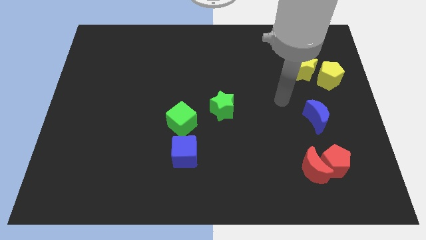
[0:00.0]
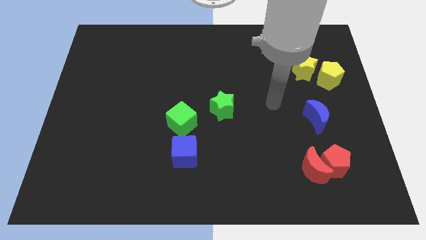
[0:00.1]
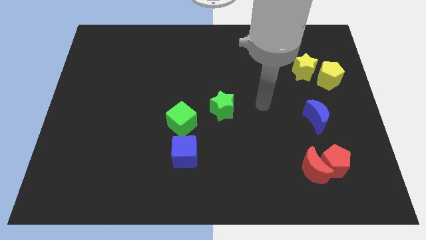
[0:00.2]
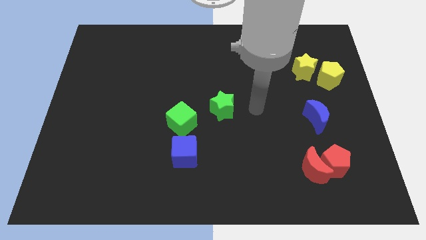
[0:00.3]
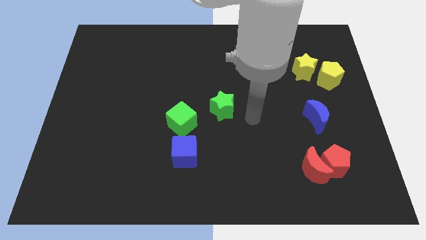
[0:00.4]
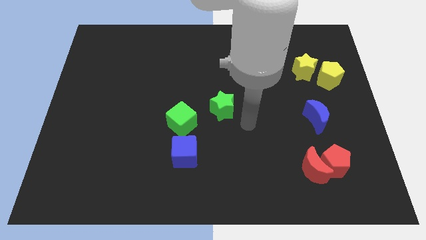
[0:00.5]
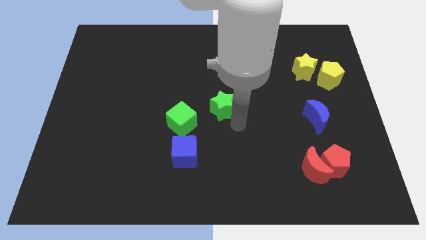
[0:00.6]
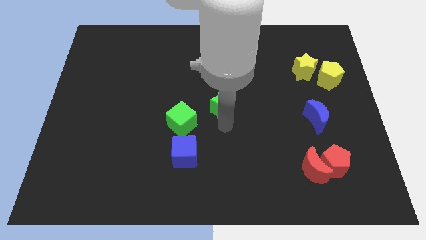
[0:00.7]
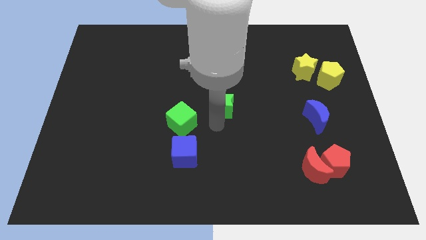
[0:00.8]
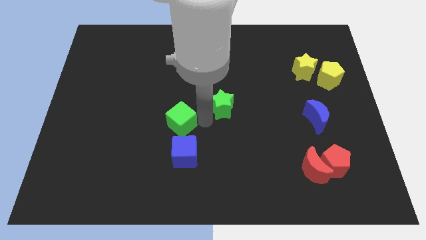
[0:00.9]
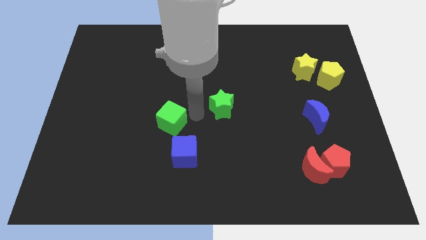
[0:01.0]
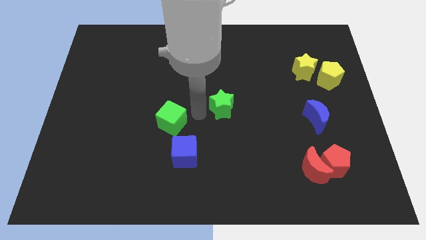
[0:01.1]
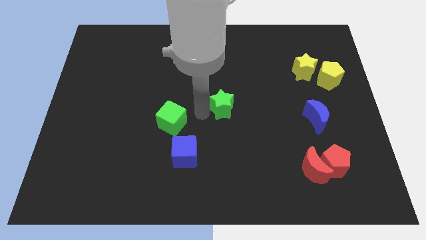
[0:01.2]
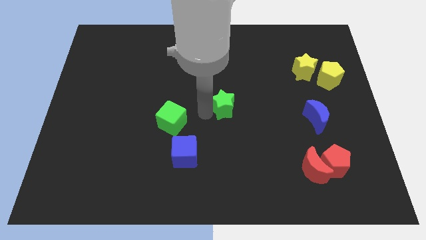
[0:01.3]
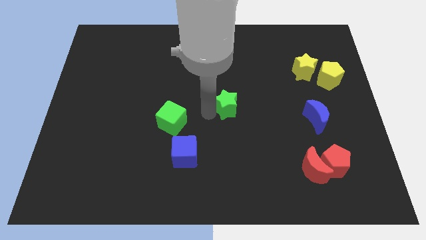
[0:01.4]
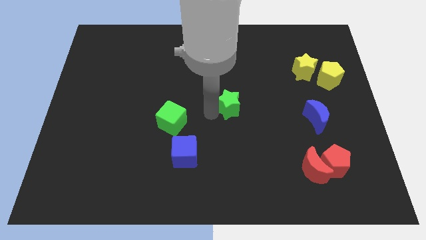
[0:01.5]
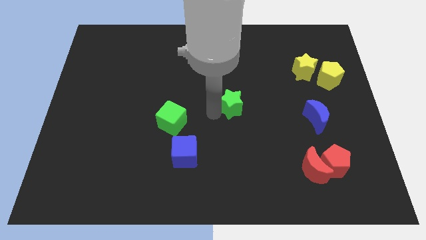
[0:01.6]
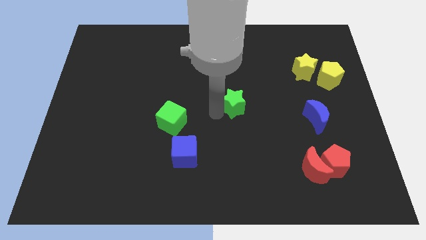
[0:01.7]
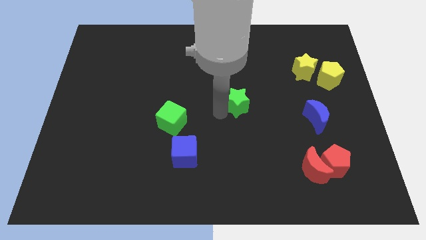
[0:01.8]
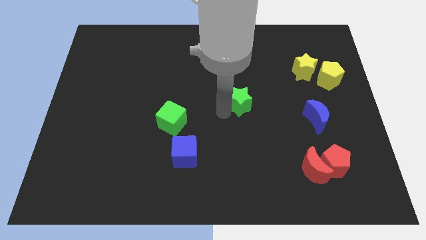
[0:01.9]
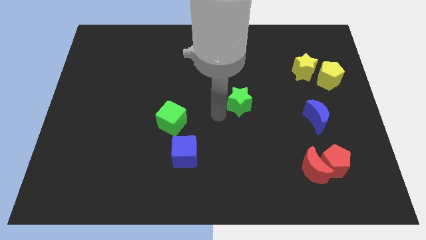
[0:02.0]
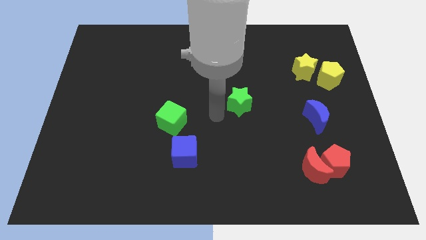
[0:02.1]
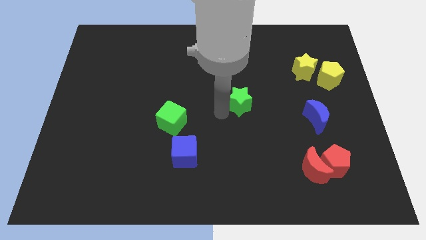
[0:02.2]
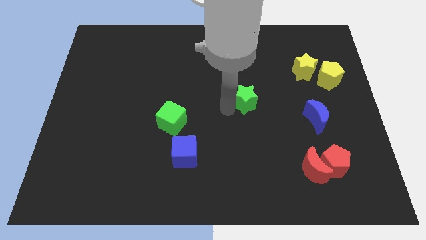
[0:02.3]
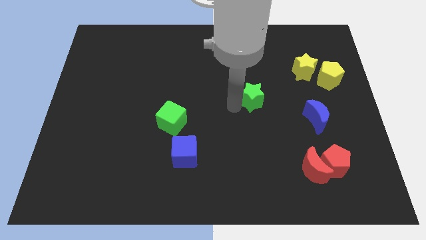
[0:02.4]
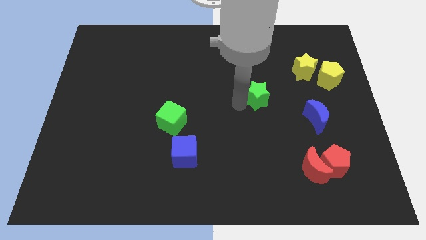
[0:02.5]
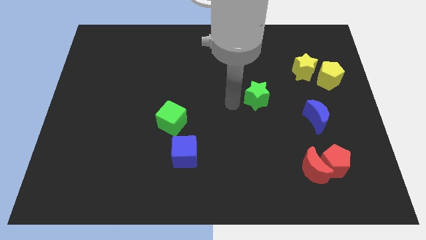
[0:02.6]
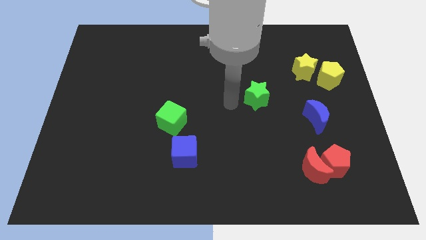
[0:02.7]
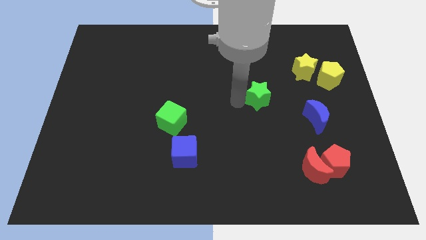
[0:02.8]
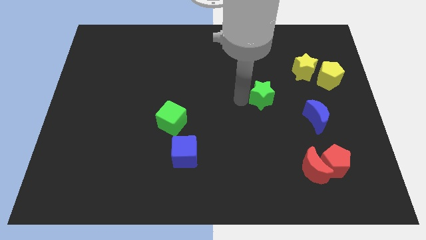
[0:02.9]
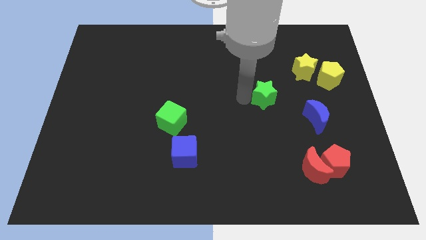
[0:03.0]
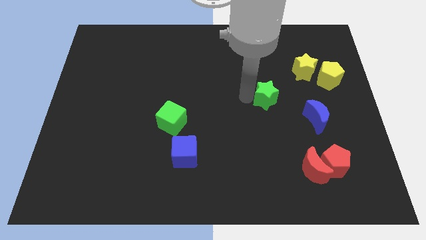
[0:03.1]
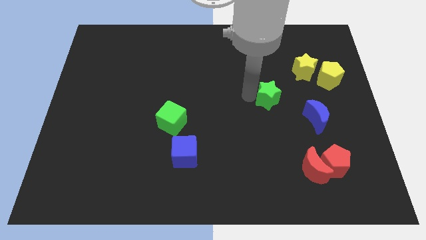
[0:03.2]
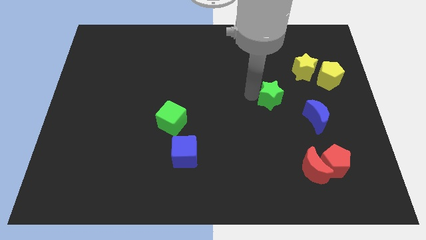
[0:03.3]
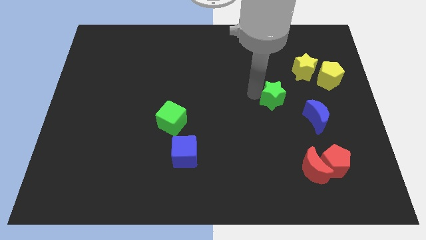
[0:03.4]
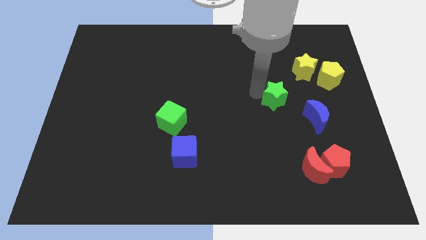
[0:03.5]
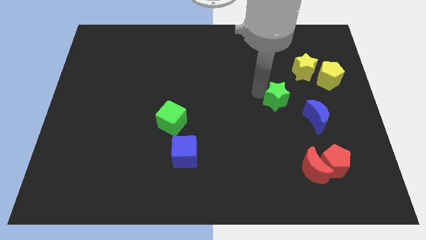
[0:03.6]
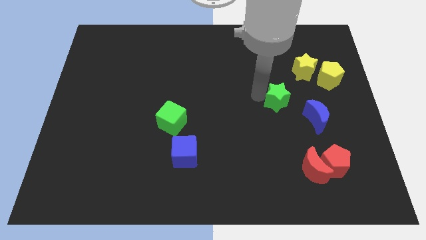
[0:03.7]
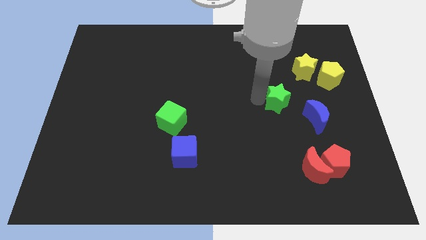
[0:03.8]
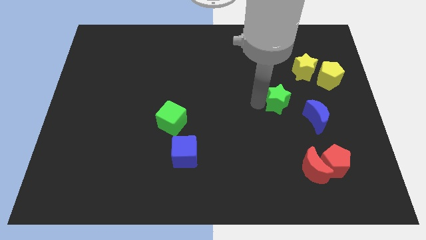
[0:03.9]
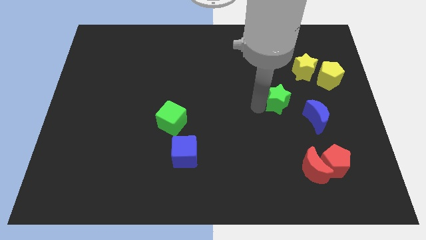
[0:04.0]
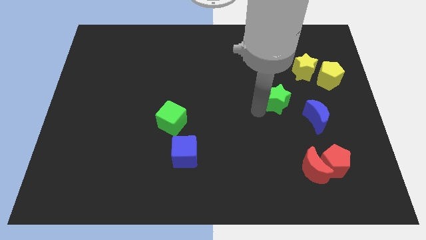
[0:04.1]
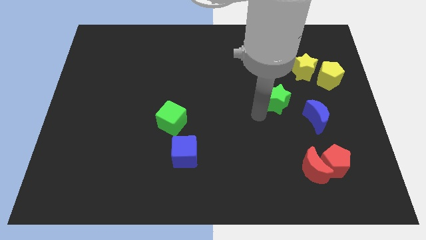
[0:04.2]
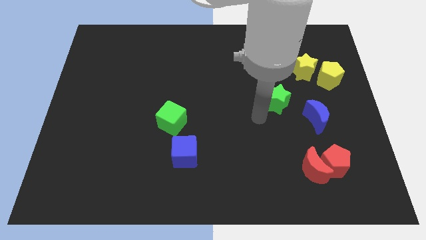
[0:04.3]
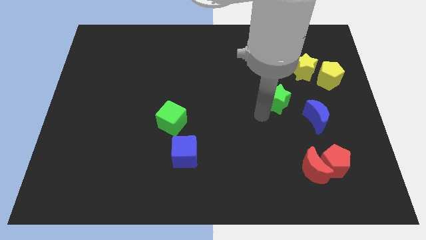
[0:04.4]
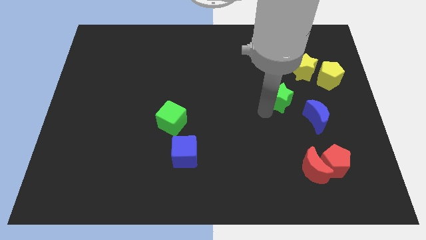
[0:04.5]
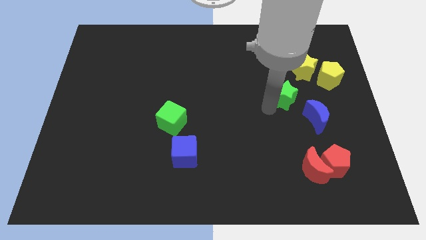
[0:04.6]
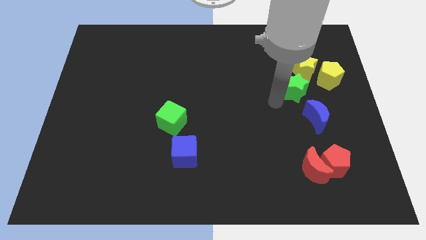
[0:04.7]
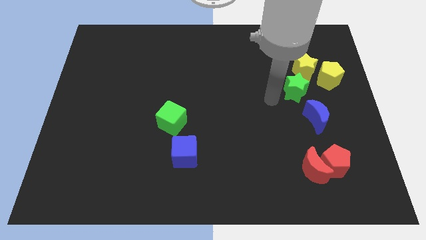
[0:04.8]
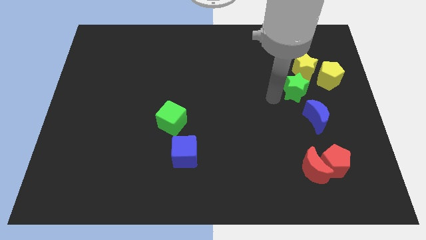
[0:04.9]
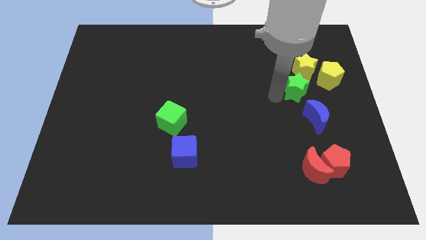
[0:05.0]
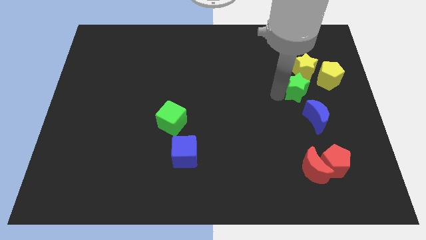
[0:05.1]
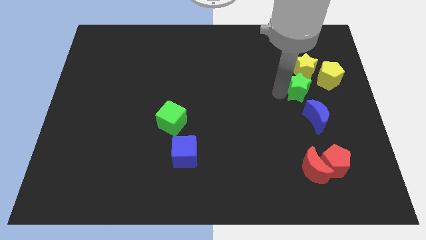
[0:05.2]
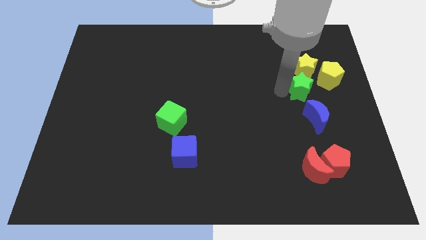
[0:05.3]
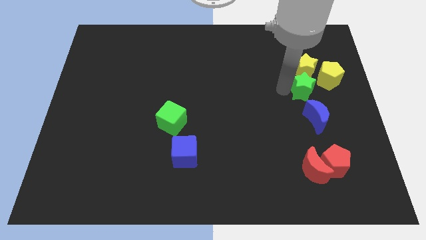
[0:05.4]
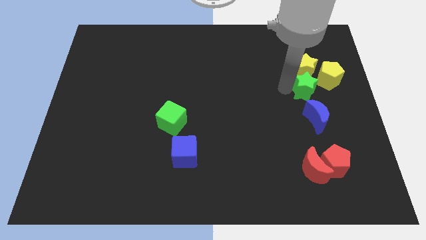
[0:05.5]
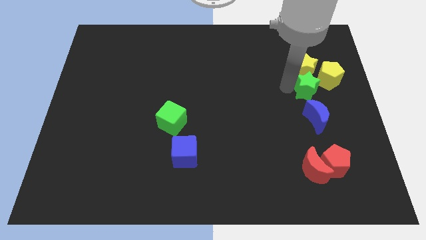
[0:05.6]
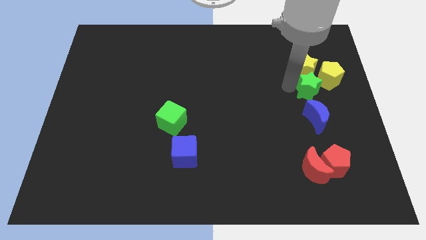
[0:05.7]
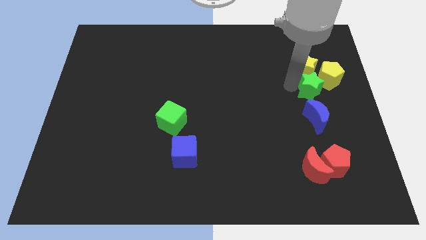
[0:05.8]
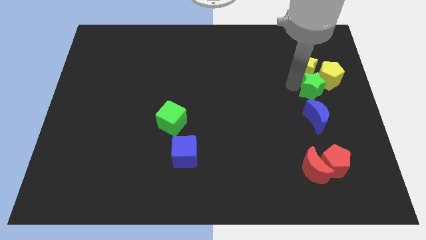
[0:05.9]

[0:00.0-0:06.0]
push the green star close to the yellow pentagon

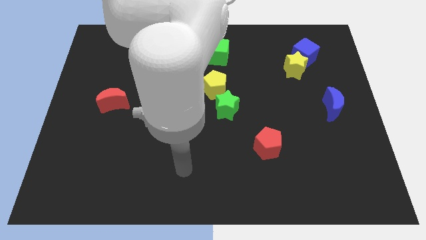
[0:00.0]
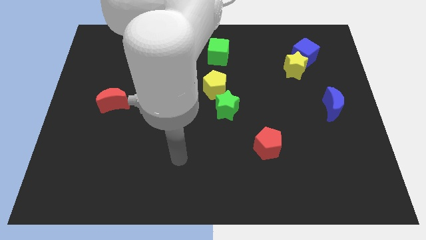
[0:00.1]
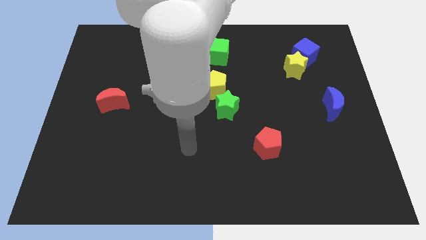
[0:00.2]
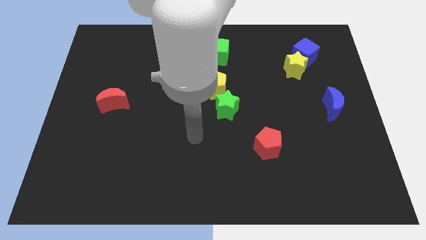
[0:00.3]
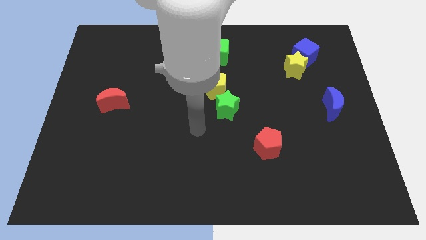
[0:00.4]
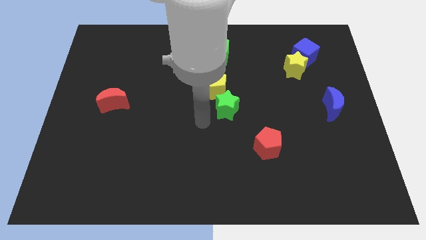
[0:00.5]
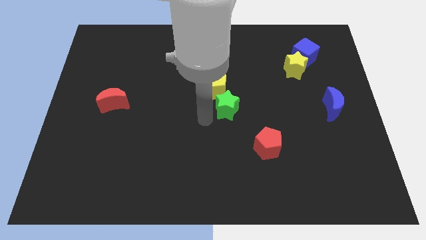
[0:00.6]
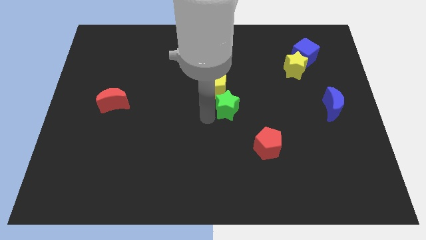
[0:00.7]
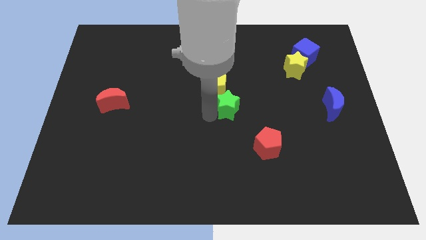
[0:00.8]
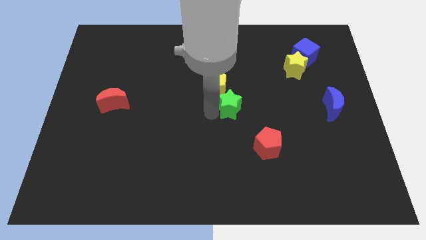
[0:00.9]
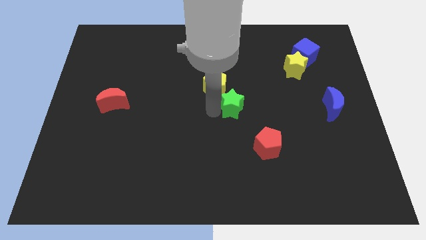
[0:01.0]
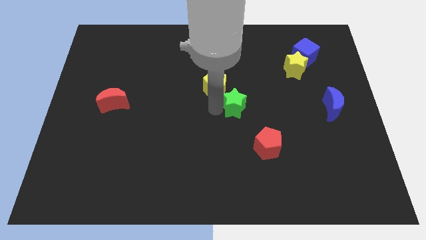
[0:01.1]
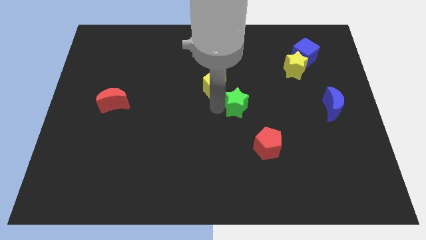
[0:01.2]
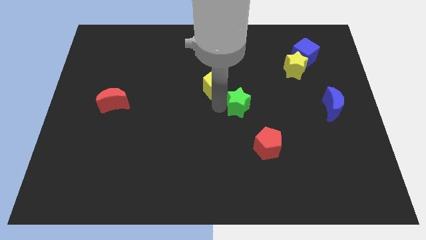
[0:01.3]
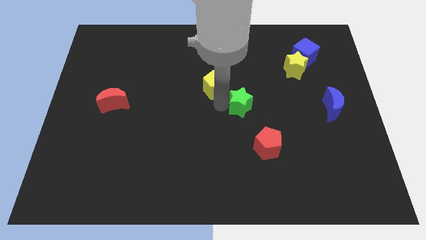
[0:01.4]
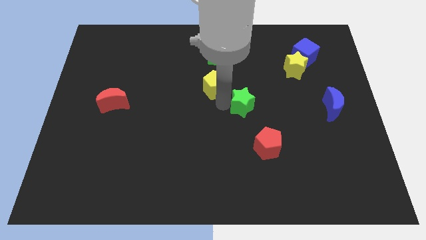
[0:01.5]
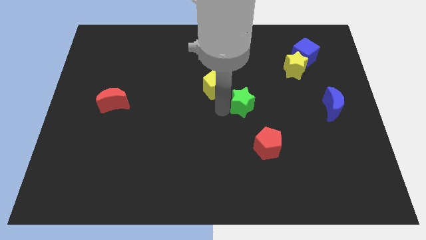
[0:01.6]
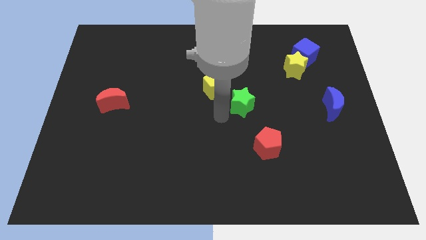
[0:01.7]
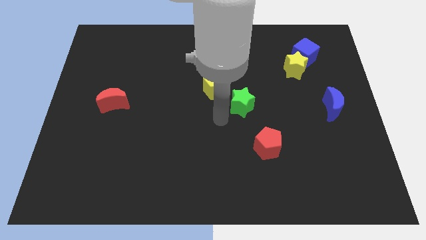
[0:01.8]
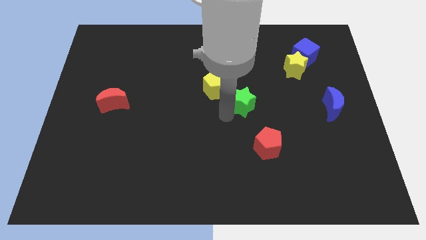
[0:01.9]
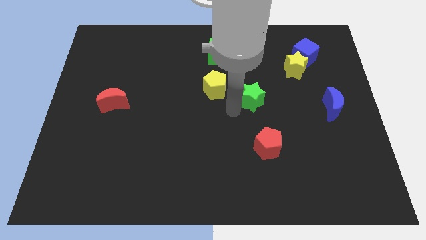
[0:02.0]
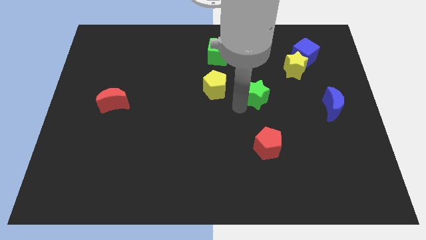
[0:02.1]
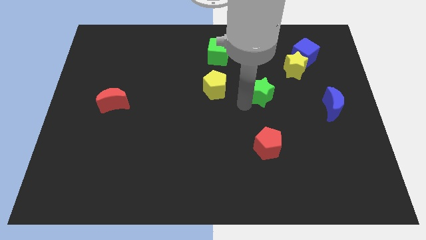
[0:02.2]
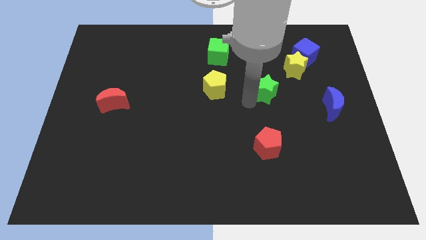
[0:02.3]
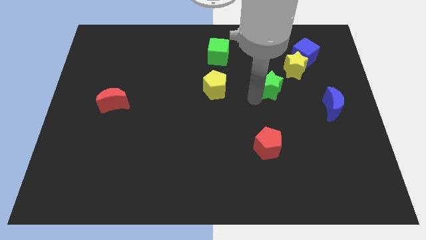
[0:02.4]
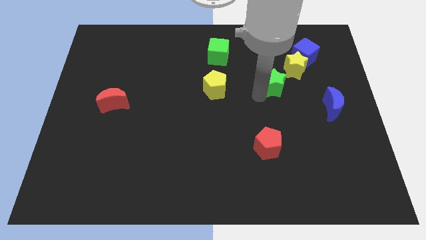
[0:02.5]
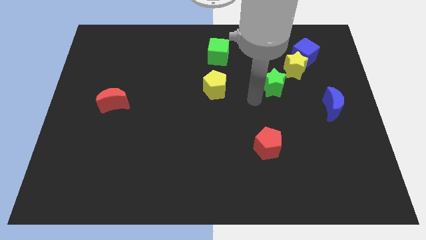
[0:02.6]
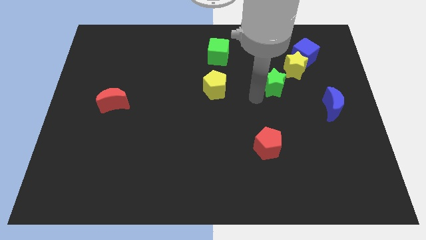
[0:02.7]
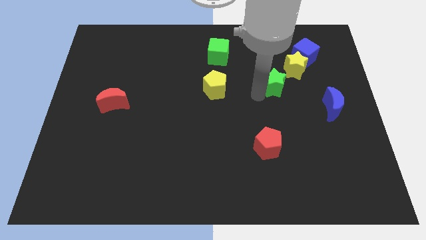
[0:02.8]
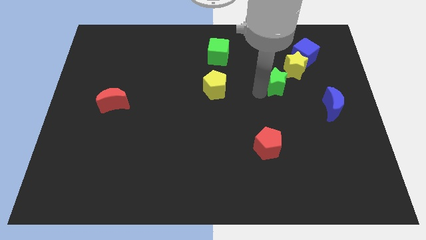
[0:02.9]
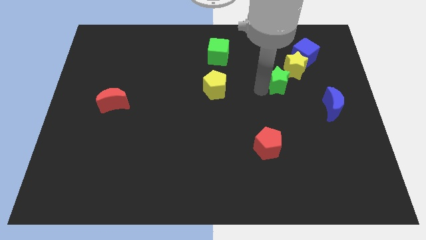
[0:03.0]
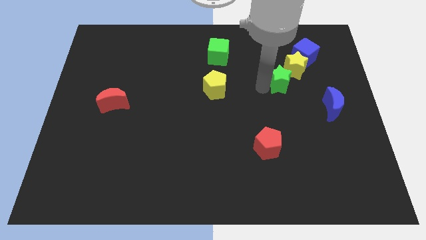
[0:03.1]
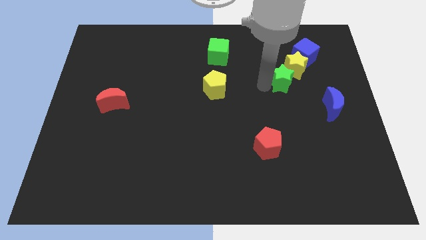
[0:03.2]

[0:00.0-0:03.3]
put the green star to the yellow star
